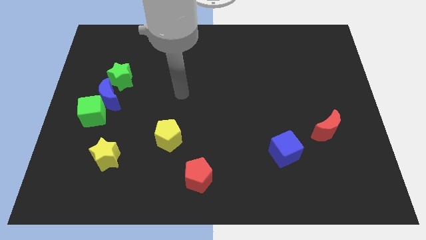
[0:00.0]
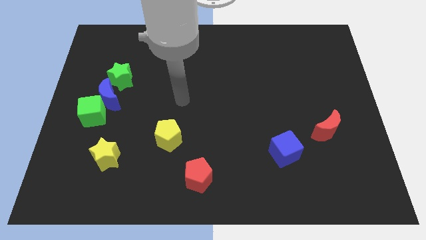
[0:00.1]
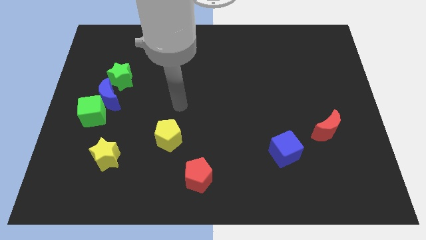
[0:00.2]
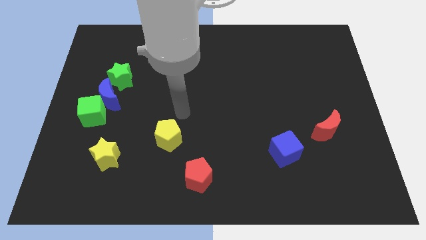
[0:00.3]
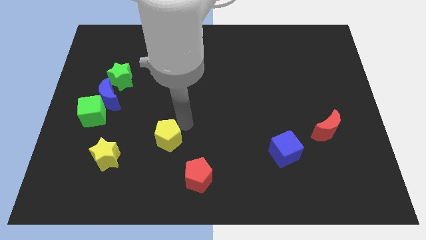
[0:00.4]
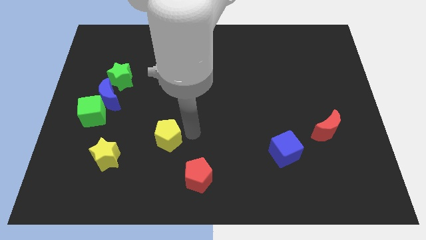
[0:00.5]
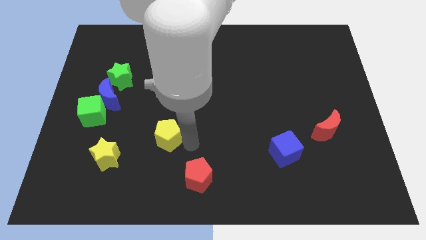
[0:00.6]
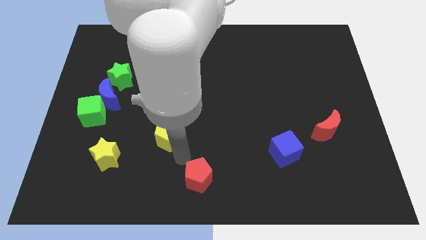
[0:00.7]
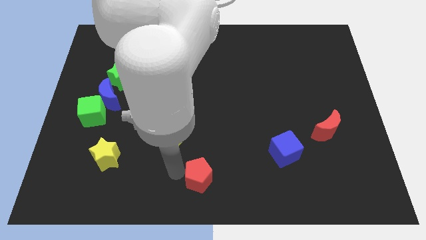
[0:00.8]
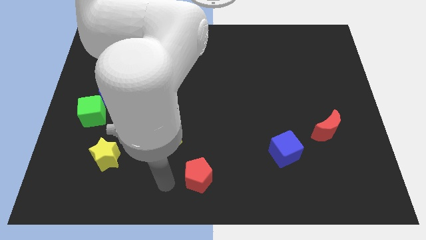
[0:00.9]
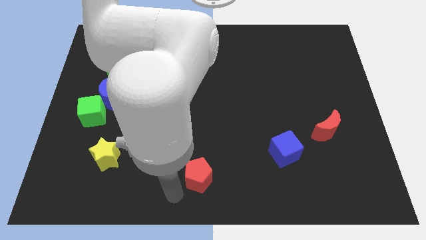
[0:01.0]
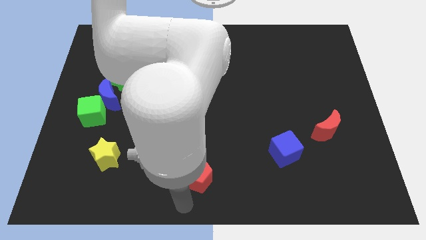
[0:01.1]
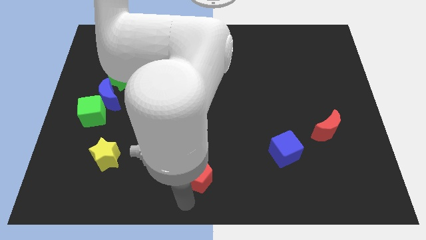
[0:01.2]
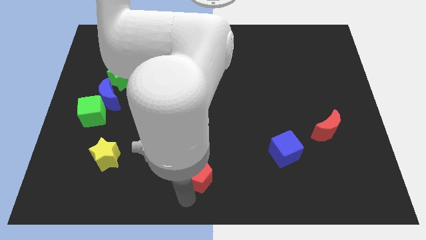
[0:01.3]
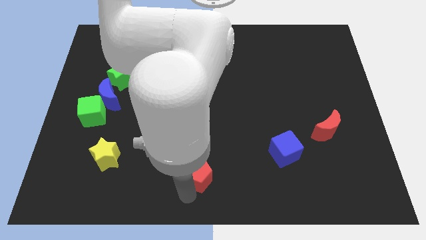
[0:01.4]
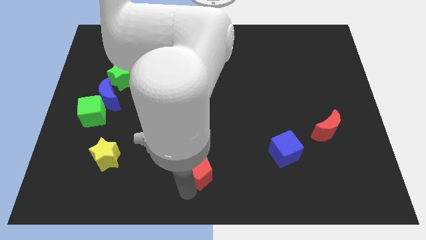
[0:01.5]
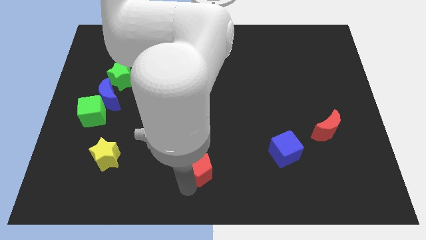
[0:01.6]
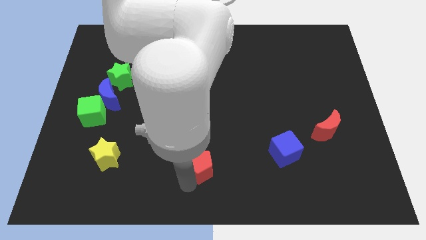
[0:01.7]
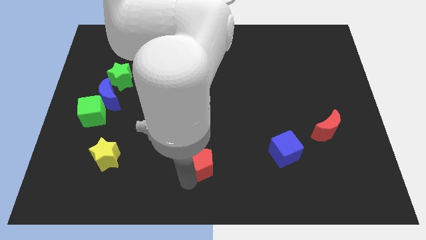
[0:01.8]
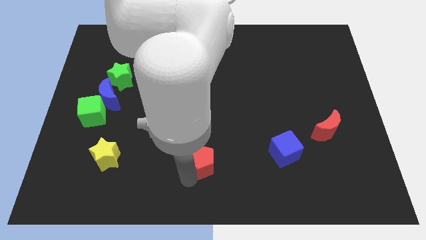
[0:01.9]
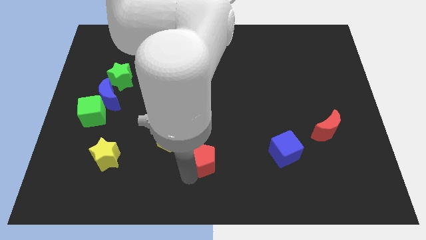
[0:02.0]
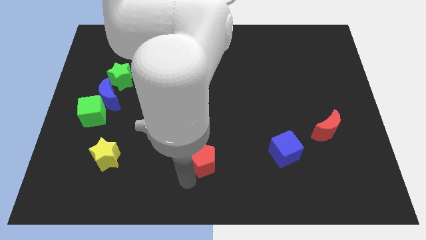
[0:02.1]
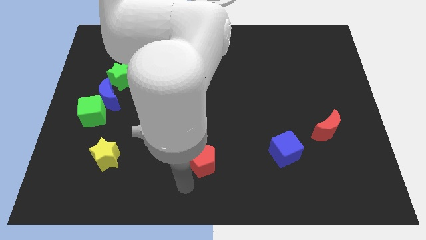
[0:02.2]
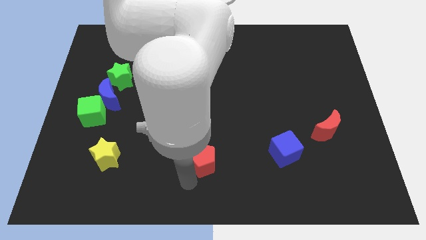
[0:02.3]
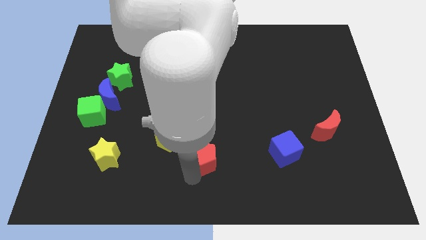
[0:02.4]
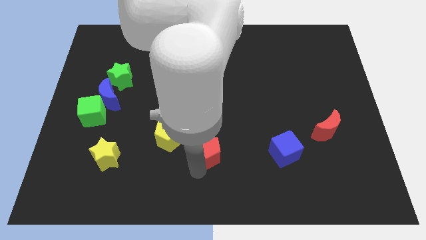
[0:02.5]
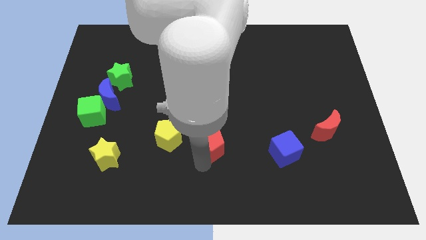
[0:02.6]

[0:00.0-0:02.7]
move the red pentagon slightly up

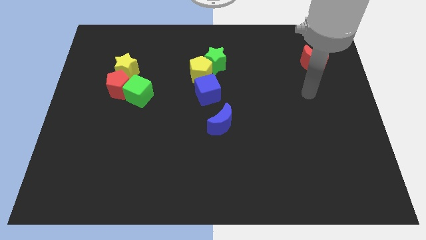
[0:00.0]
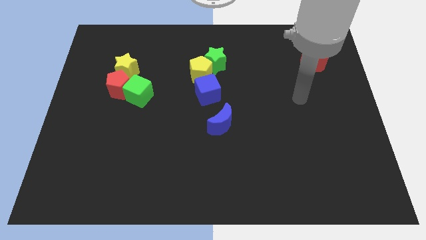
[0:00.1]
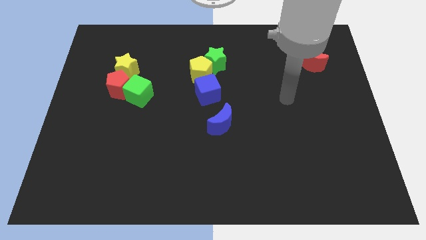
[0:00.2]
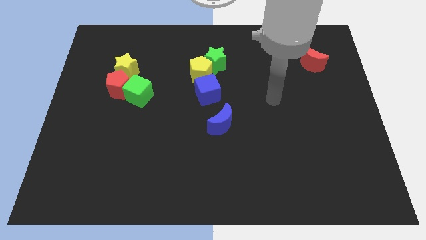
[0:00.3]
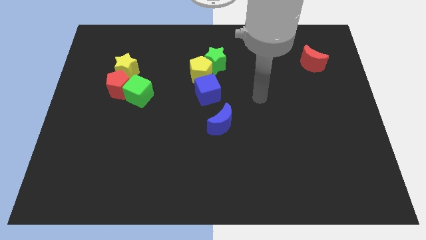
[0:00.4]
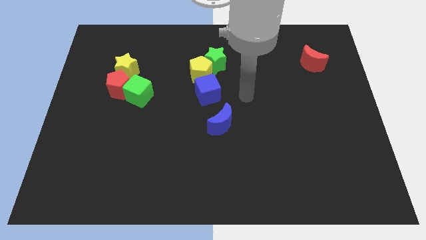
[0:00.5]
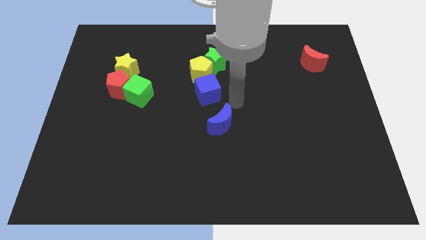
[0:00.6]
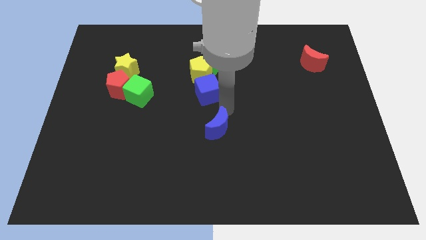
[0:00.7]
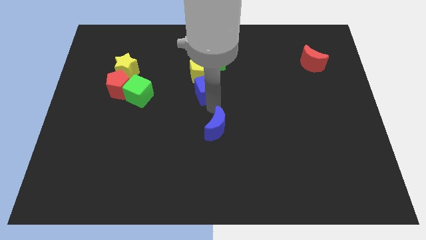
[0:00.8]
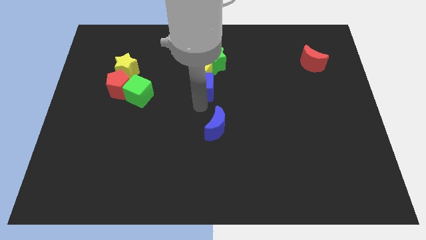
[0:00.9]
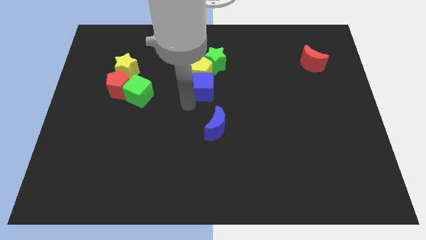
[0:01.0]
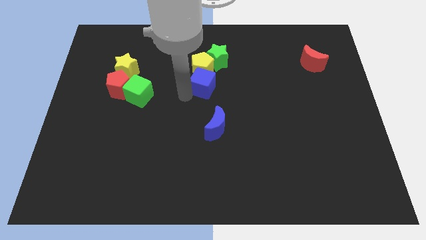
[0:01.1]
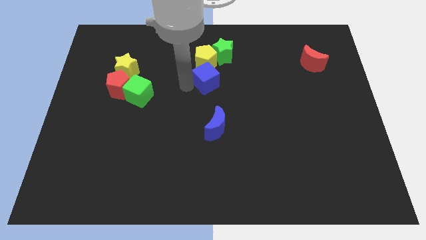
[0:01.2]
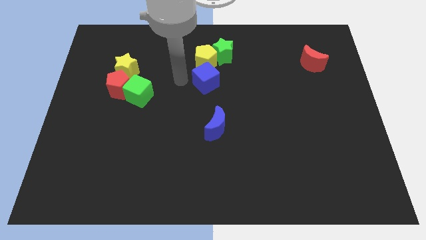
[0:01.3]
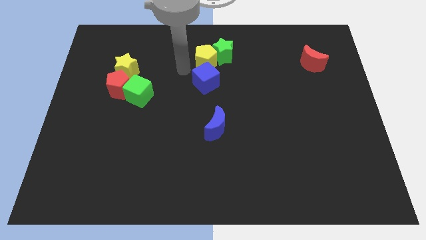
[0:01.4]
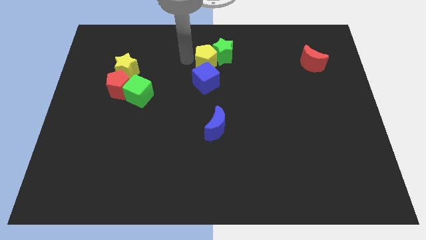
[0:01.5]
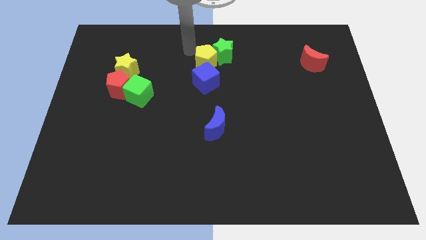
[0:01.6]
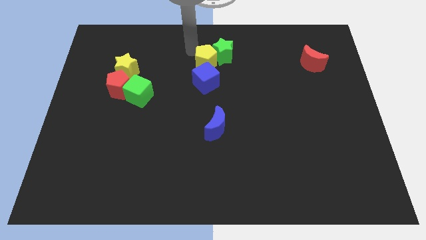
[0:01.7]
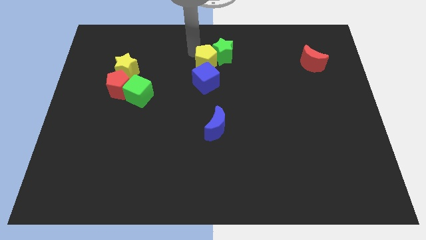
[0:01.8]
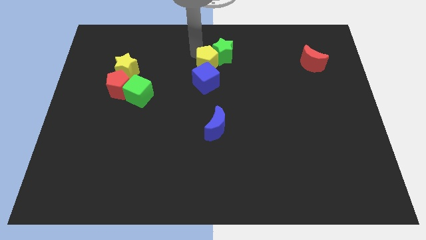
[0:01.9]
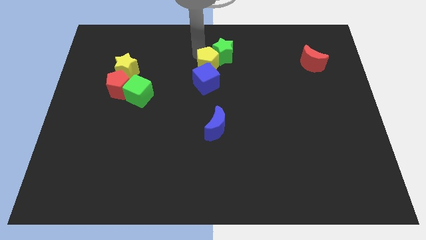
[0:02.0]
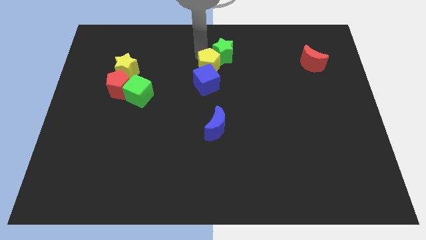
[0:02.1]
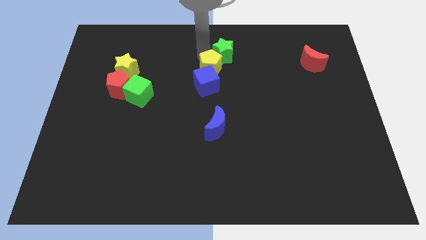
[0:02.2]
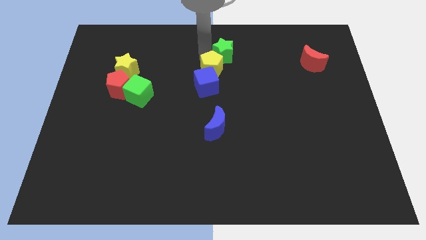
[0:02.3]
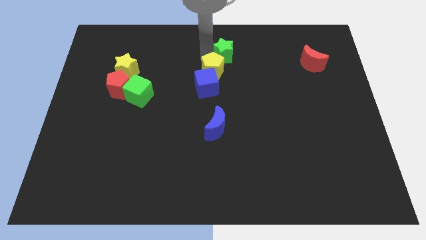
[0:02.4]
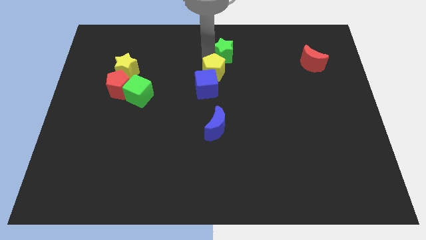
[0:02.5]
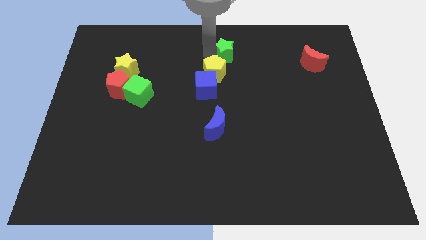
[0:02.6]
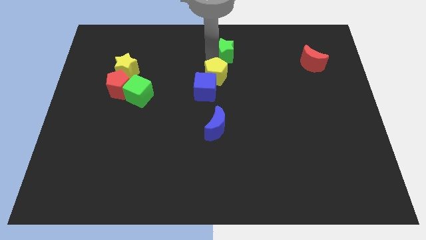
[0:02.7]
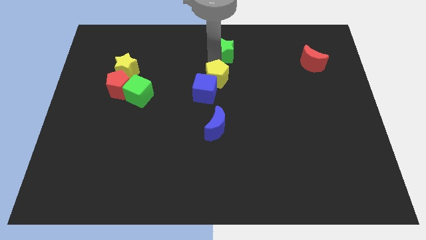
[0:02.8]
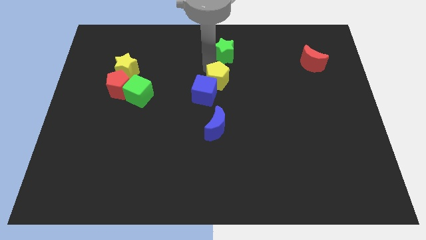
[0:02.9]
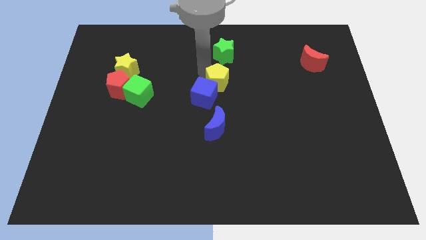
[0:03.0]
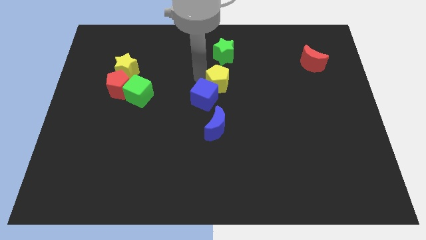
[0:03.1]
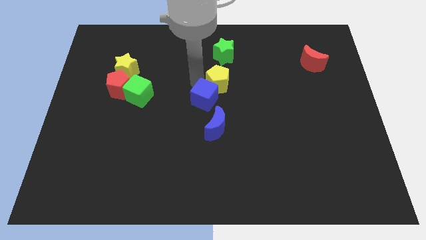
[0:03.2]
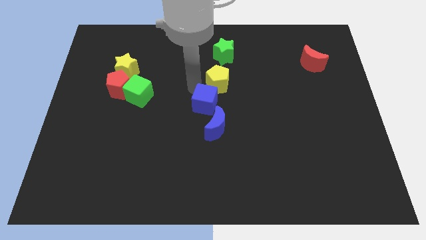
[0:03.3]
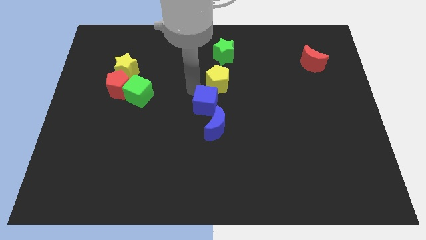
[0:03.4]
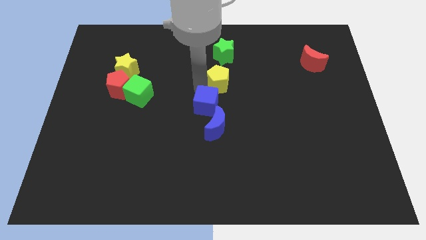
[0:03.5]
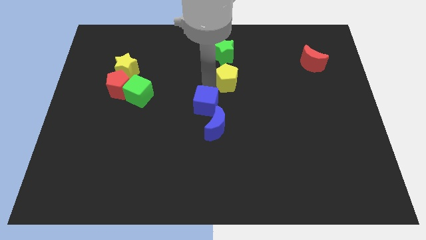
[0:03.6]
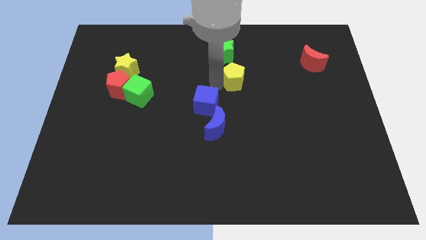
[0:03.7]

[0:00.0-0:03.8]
move the yellow pentagon slightly right

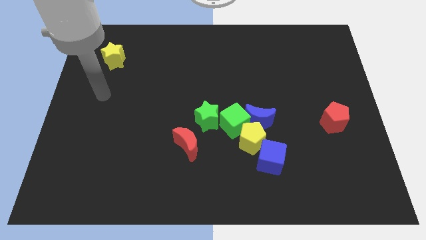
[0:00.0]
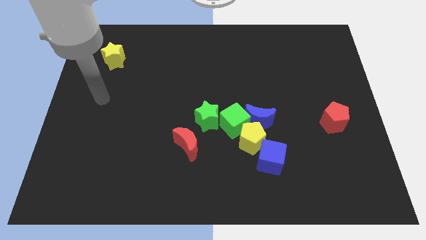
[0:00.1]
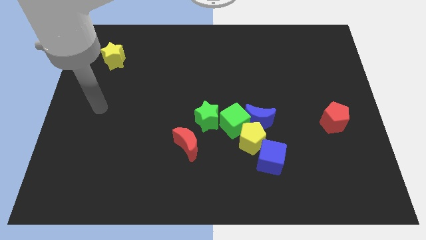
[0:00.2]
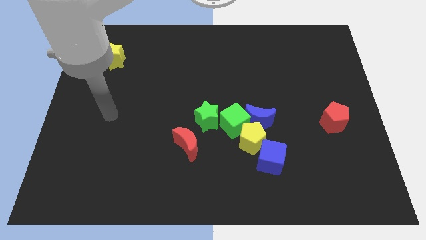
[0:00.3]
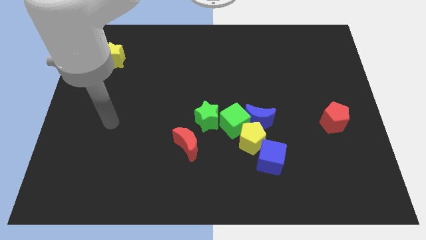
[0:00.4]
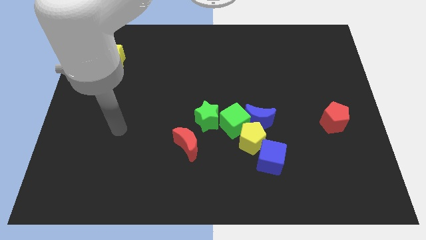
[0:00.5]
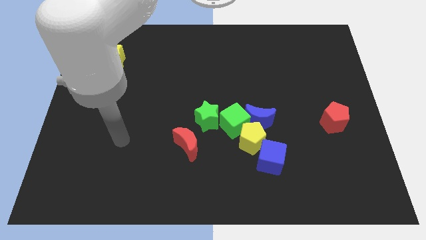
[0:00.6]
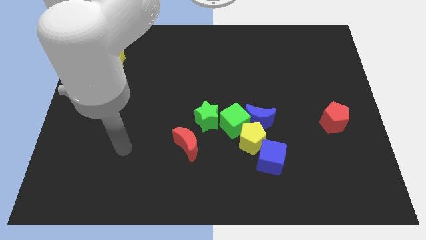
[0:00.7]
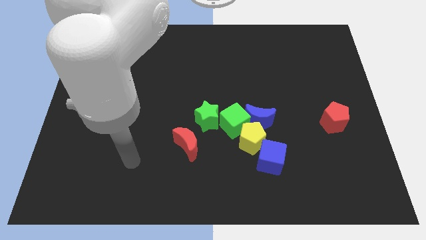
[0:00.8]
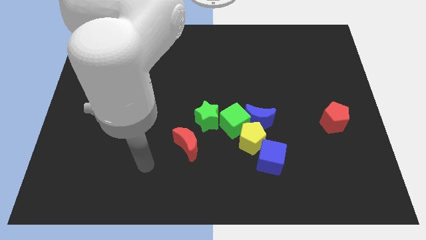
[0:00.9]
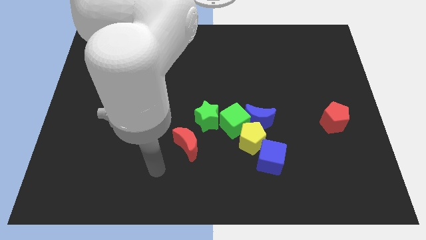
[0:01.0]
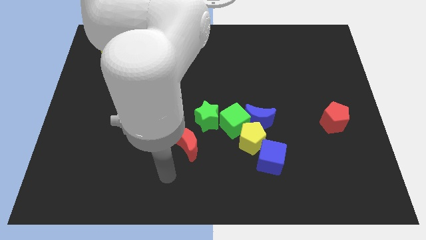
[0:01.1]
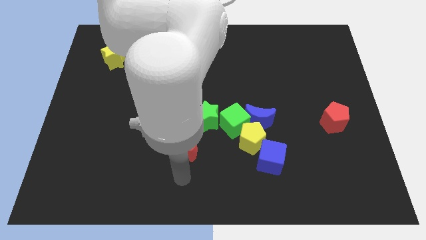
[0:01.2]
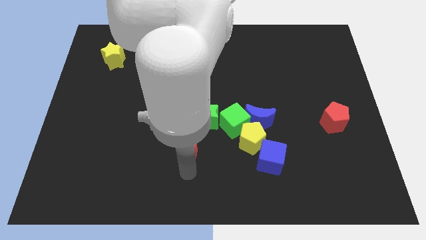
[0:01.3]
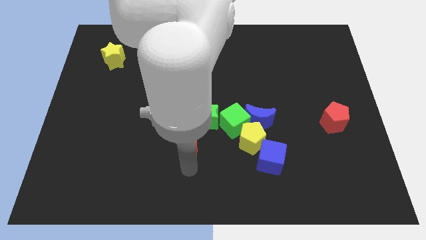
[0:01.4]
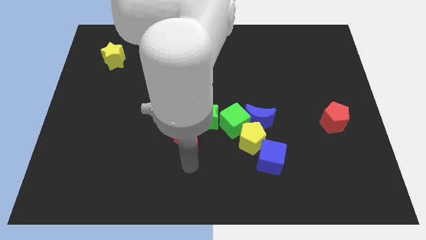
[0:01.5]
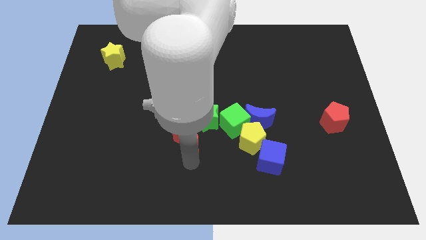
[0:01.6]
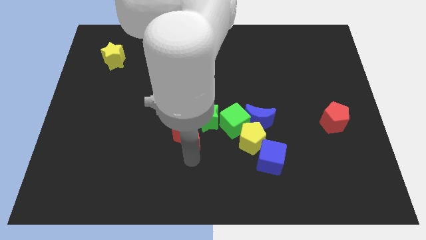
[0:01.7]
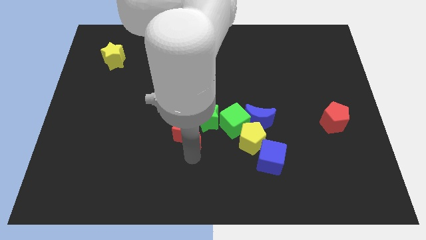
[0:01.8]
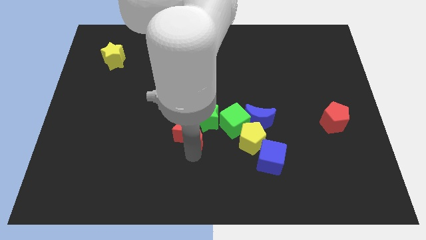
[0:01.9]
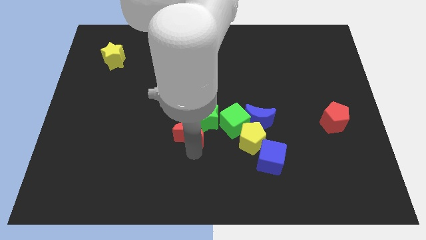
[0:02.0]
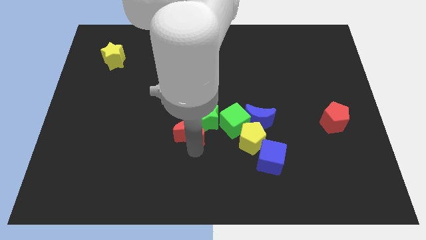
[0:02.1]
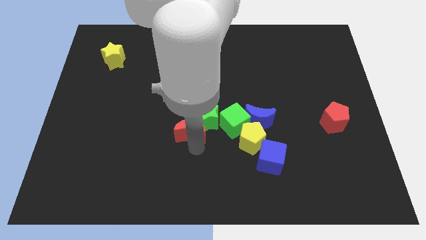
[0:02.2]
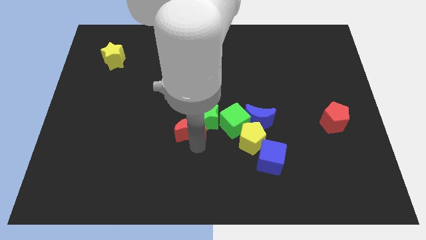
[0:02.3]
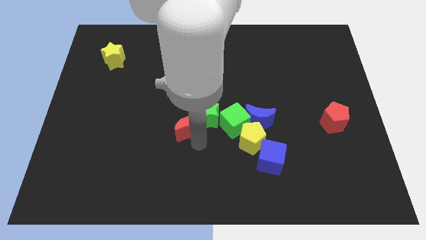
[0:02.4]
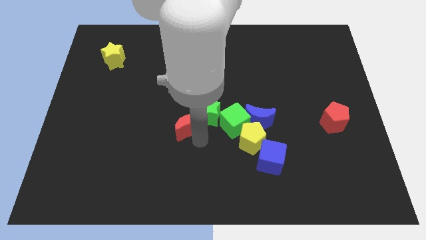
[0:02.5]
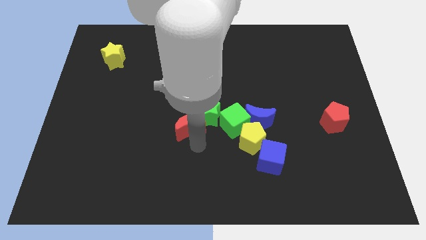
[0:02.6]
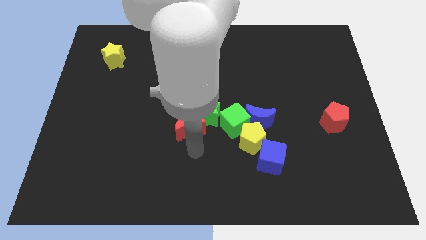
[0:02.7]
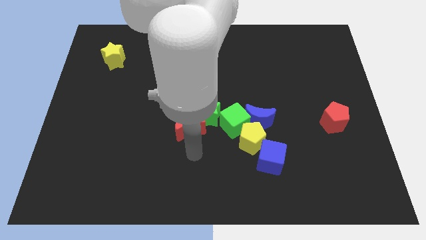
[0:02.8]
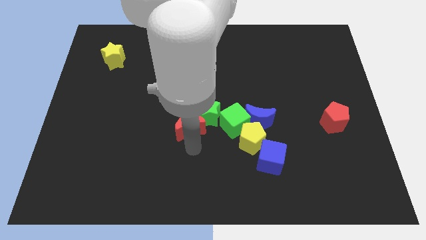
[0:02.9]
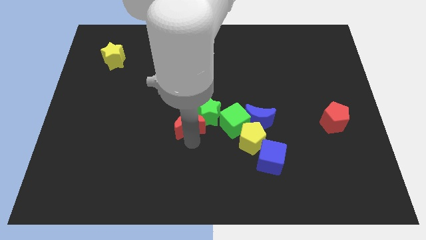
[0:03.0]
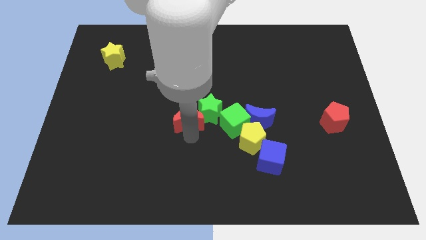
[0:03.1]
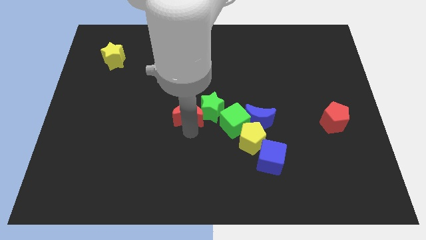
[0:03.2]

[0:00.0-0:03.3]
slide the red moon upwards a little
